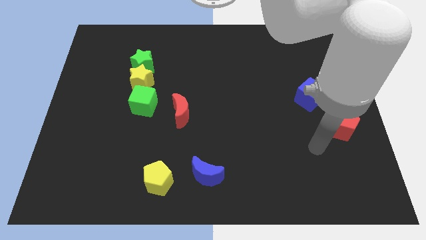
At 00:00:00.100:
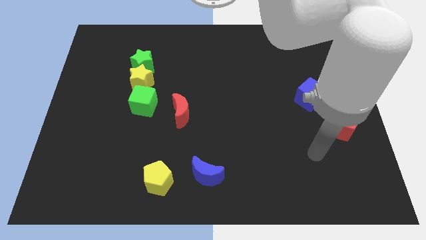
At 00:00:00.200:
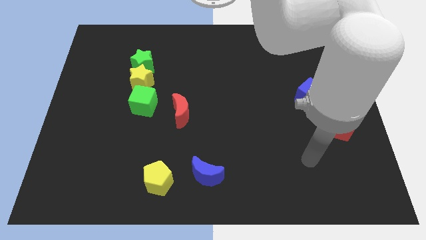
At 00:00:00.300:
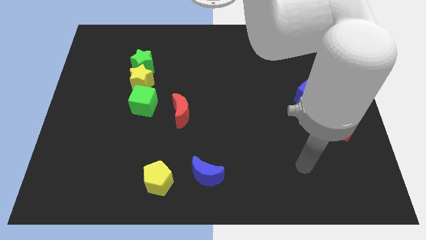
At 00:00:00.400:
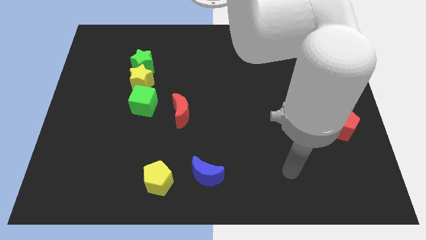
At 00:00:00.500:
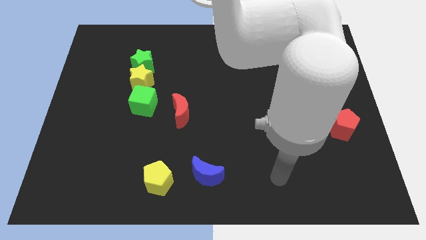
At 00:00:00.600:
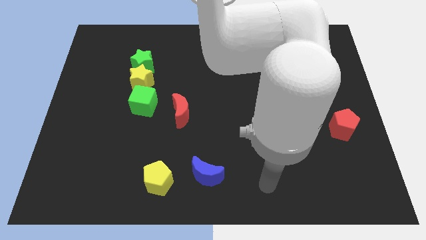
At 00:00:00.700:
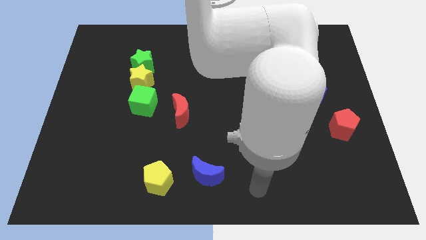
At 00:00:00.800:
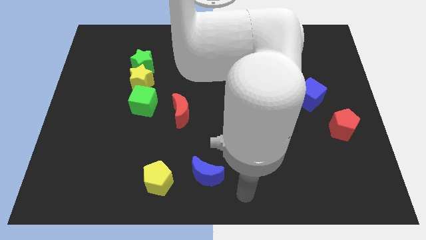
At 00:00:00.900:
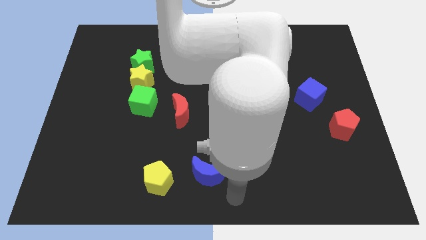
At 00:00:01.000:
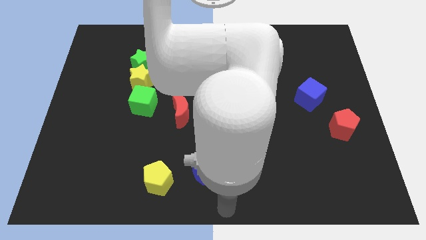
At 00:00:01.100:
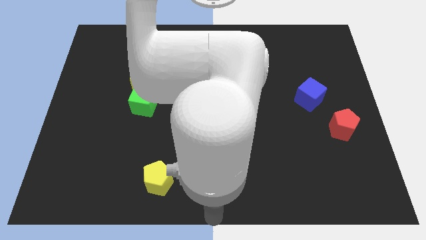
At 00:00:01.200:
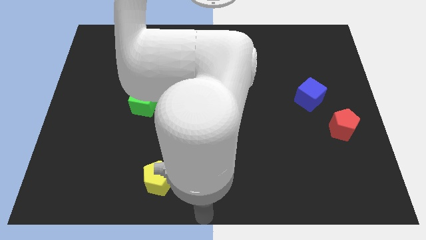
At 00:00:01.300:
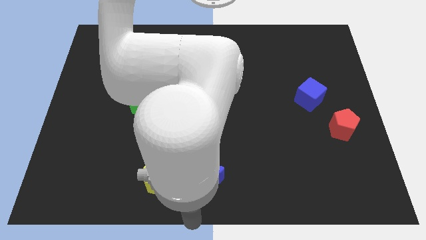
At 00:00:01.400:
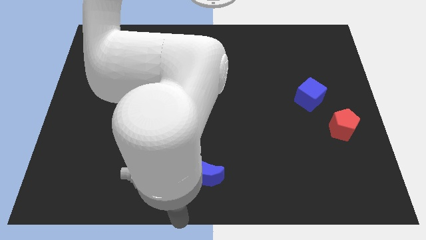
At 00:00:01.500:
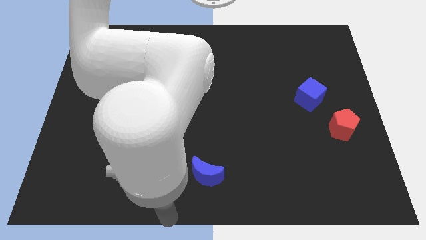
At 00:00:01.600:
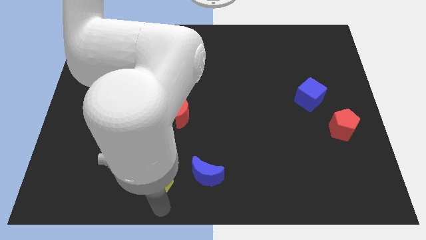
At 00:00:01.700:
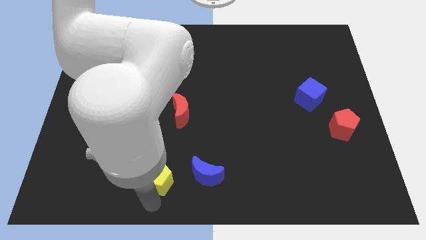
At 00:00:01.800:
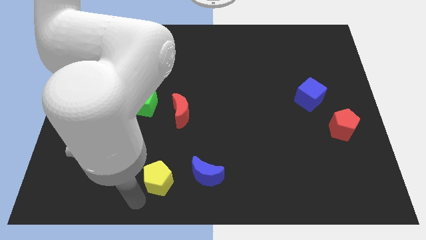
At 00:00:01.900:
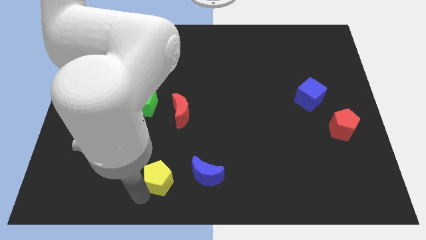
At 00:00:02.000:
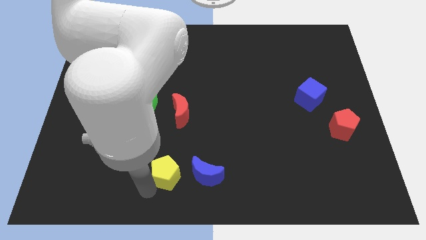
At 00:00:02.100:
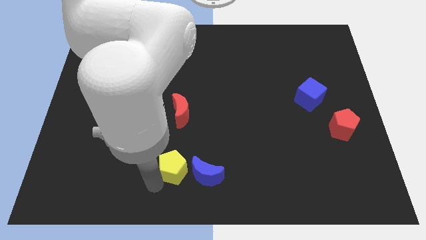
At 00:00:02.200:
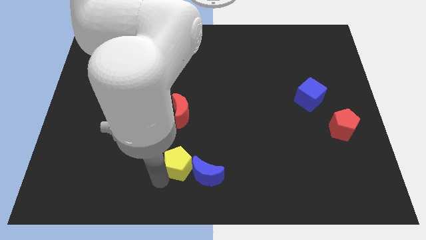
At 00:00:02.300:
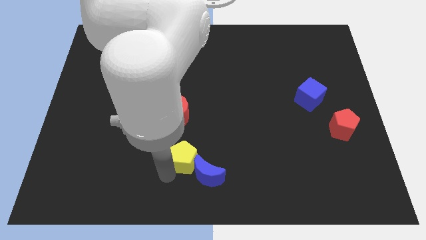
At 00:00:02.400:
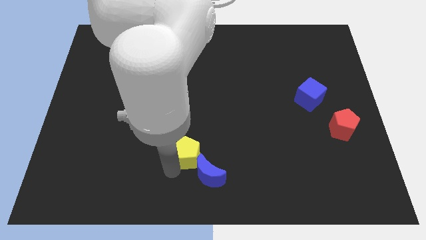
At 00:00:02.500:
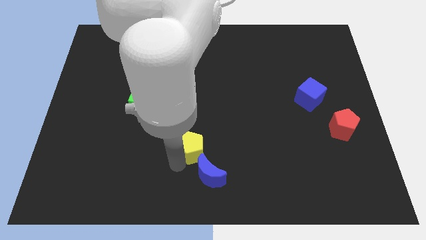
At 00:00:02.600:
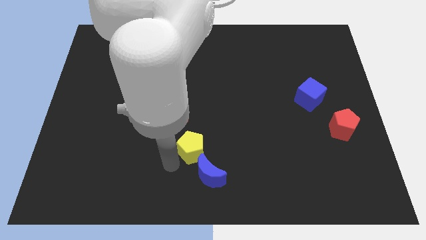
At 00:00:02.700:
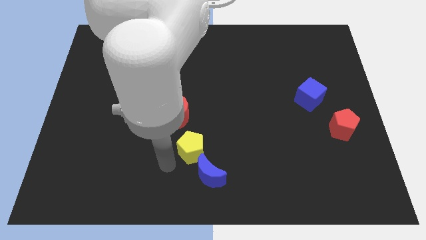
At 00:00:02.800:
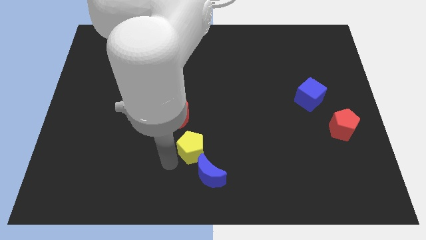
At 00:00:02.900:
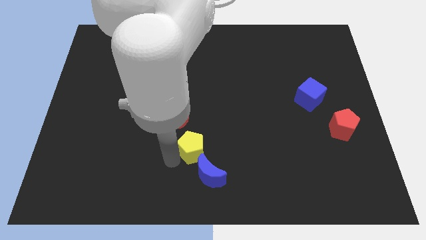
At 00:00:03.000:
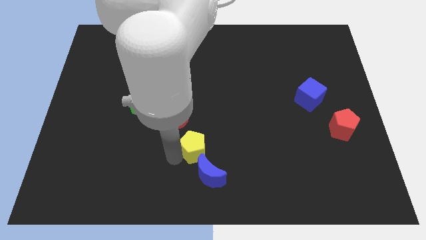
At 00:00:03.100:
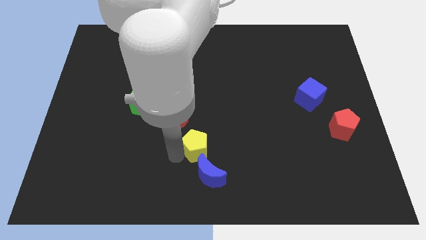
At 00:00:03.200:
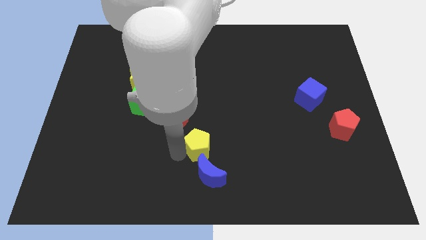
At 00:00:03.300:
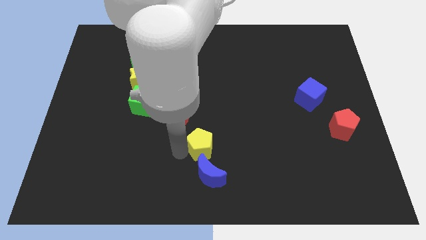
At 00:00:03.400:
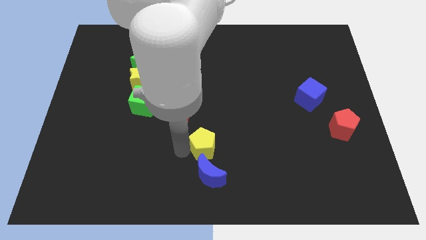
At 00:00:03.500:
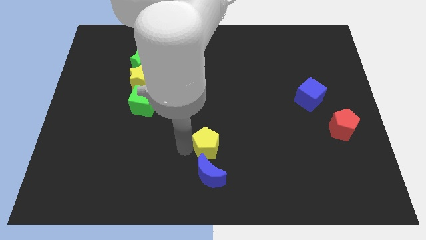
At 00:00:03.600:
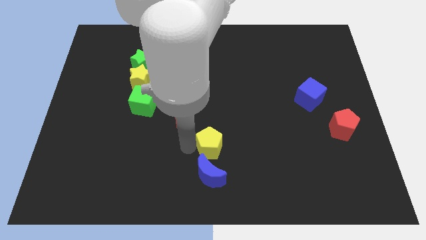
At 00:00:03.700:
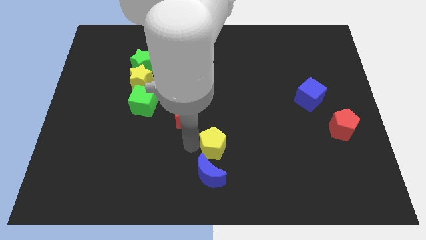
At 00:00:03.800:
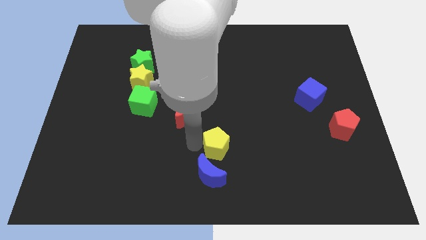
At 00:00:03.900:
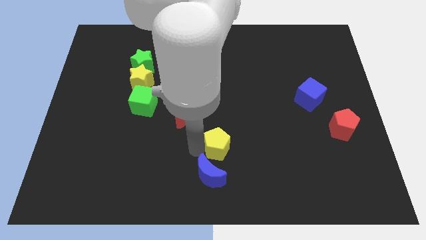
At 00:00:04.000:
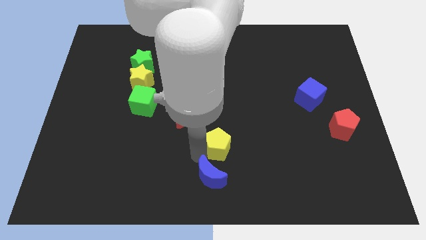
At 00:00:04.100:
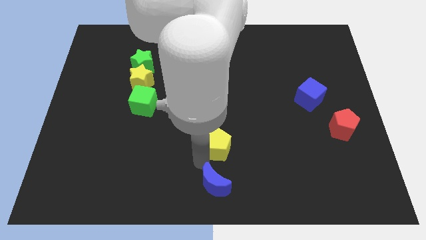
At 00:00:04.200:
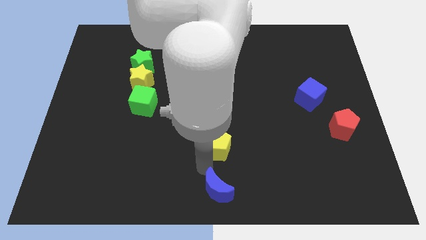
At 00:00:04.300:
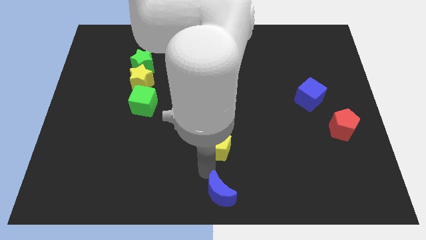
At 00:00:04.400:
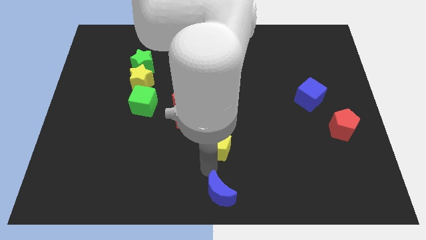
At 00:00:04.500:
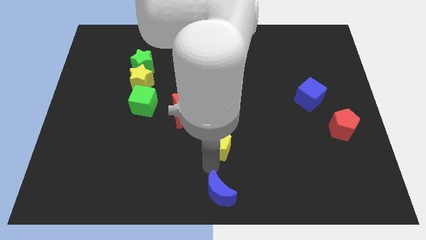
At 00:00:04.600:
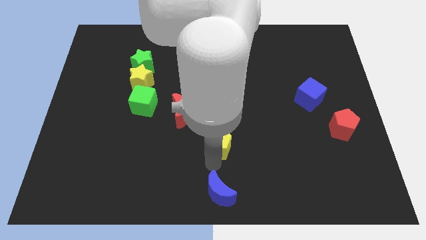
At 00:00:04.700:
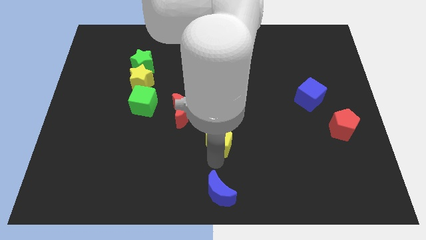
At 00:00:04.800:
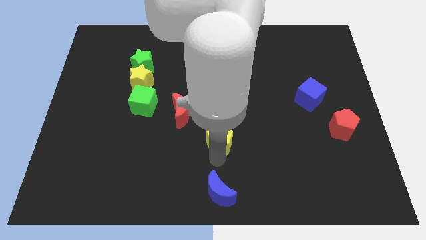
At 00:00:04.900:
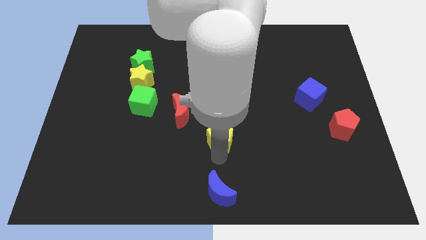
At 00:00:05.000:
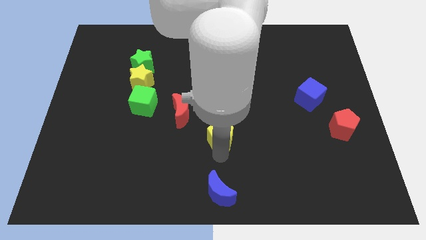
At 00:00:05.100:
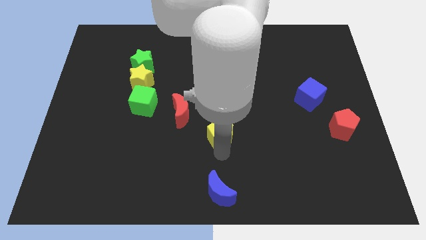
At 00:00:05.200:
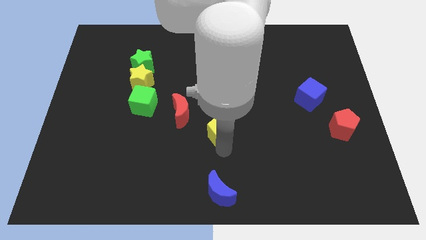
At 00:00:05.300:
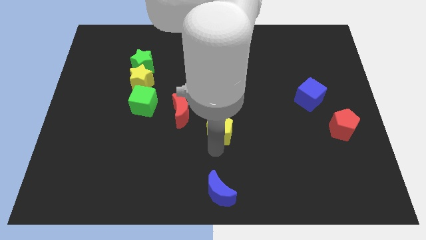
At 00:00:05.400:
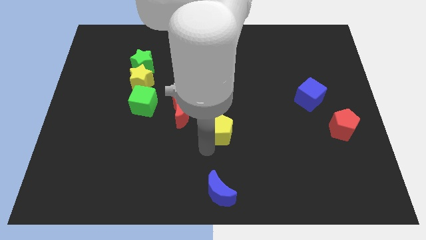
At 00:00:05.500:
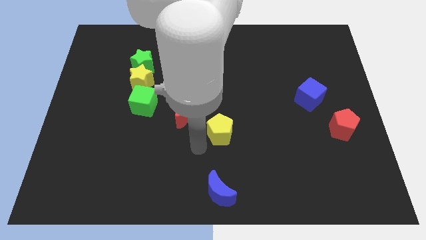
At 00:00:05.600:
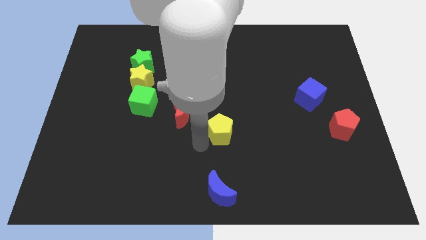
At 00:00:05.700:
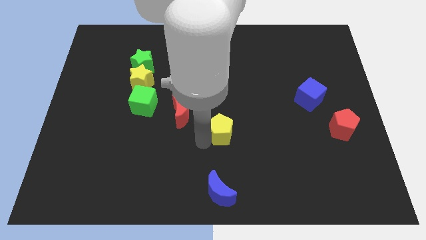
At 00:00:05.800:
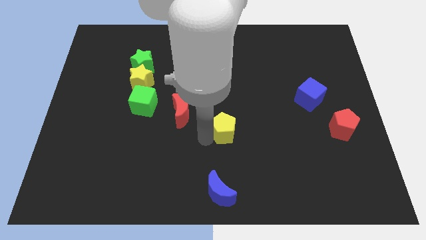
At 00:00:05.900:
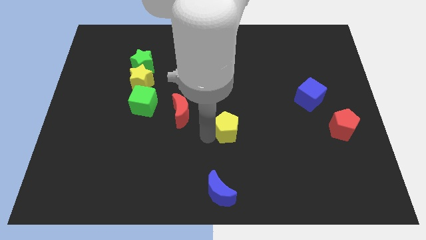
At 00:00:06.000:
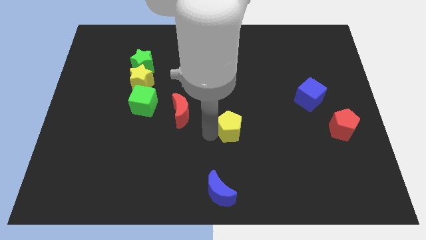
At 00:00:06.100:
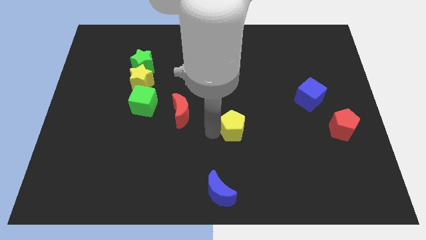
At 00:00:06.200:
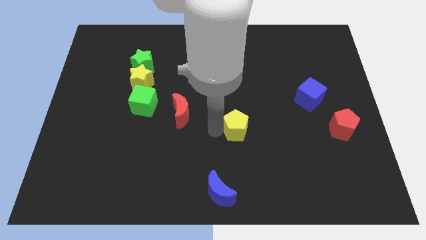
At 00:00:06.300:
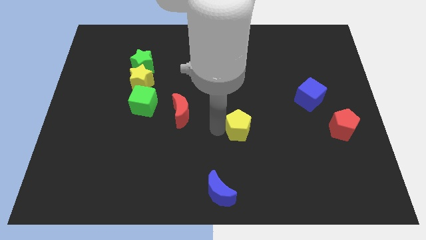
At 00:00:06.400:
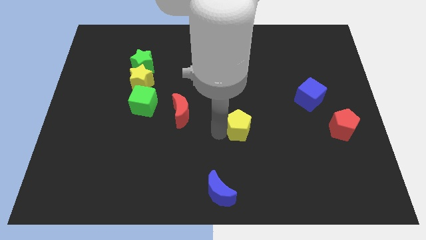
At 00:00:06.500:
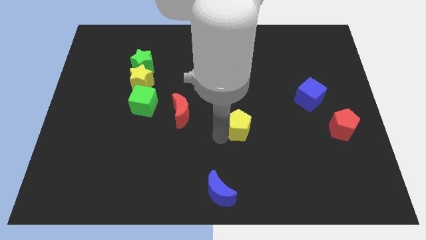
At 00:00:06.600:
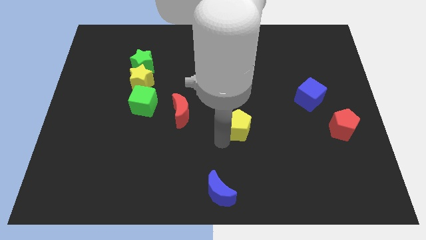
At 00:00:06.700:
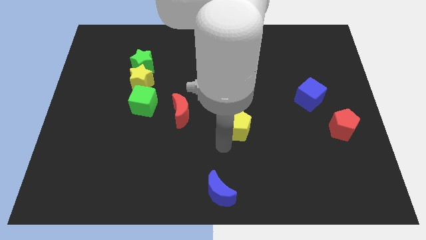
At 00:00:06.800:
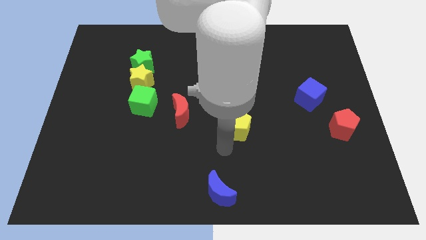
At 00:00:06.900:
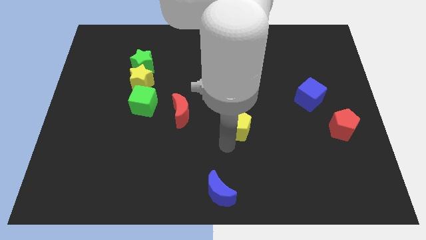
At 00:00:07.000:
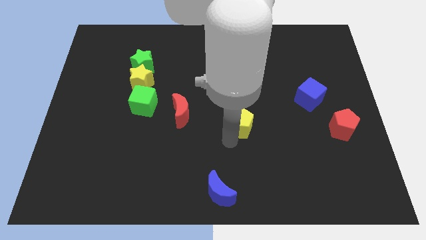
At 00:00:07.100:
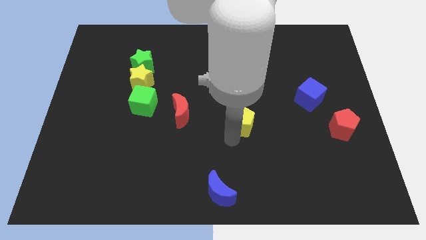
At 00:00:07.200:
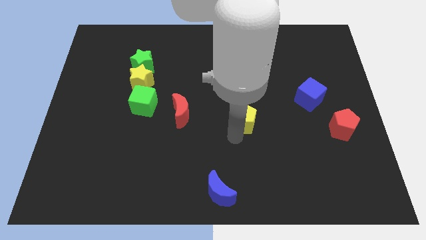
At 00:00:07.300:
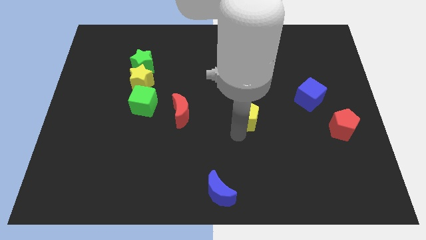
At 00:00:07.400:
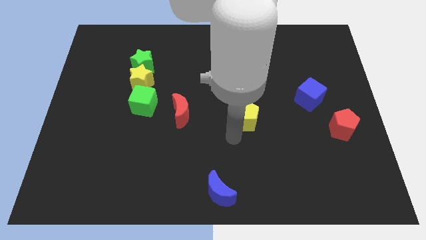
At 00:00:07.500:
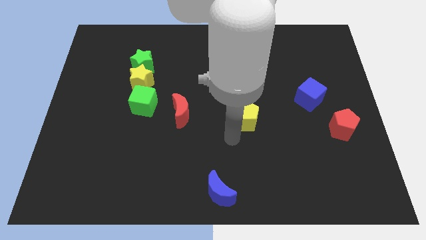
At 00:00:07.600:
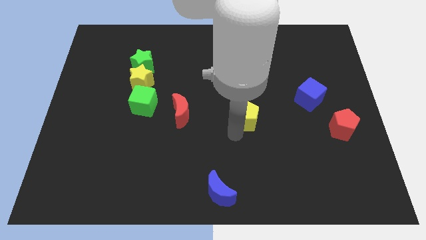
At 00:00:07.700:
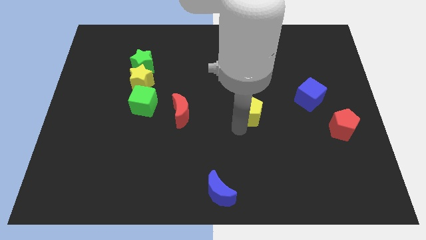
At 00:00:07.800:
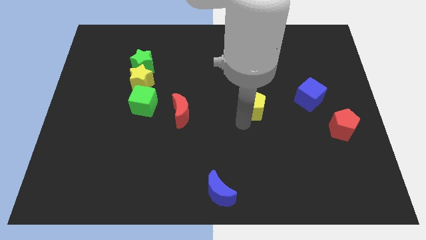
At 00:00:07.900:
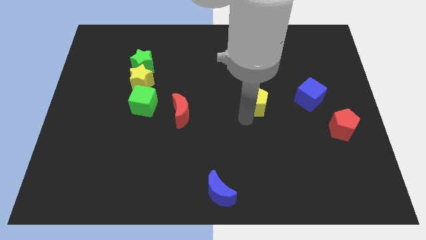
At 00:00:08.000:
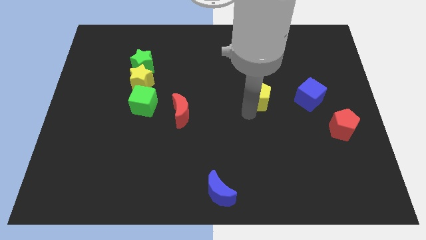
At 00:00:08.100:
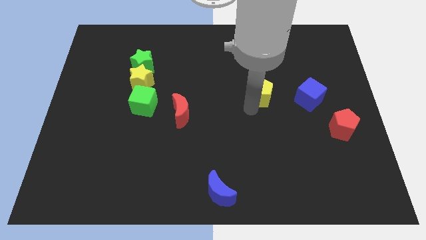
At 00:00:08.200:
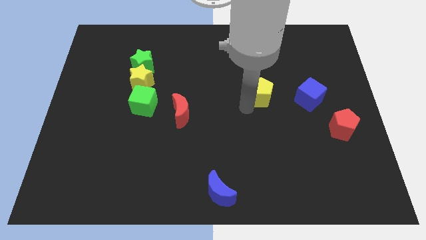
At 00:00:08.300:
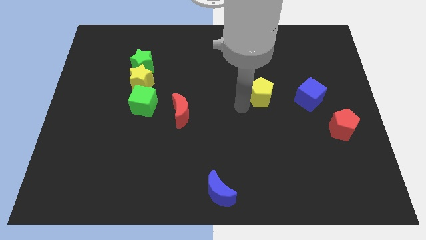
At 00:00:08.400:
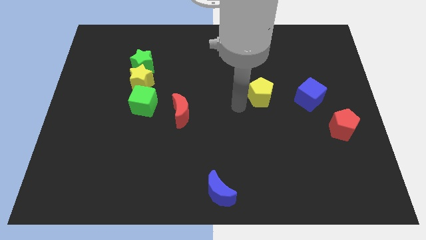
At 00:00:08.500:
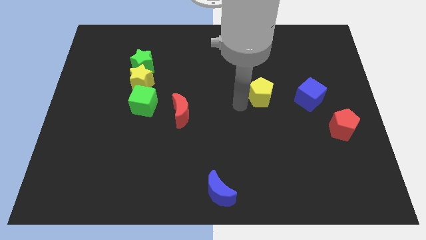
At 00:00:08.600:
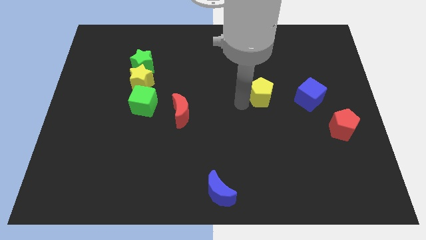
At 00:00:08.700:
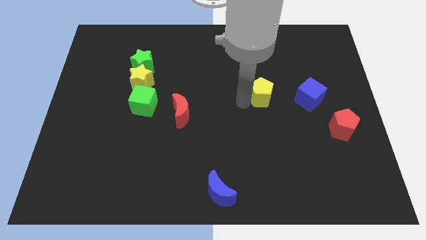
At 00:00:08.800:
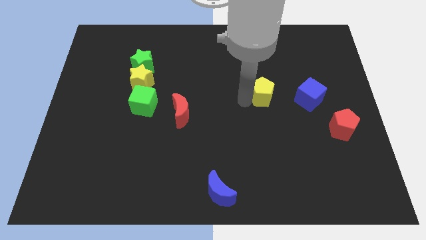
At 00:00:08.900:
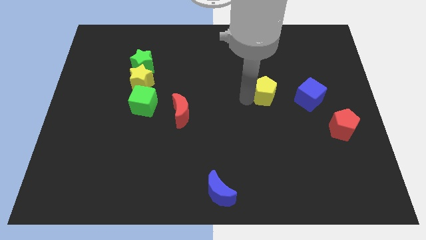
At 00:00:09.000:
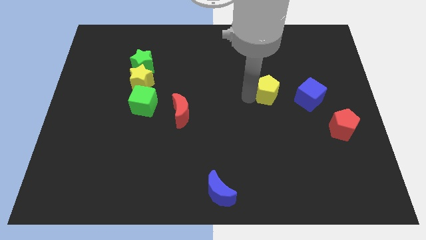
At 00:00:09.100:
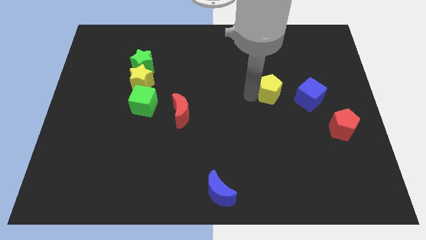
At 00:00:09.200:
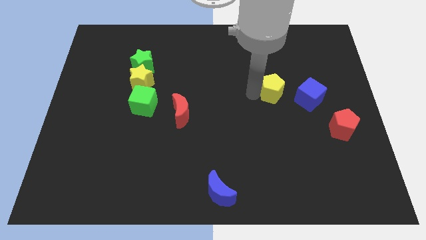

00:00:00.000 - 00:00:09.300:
push the yellow pentagon diagonally up and to the left of the blue cube
